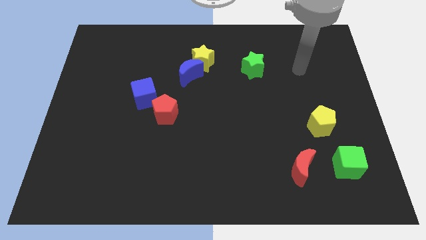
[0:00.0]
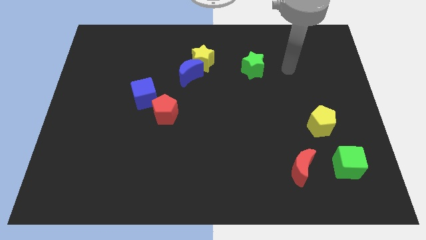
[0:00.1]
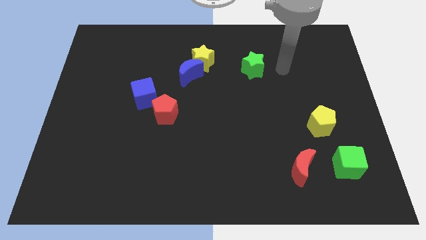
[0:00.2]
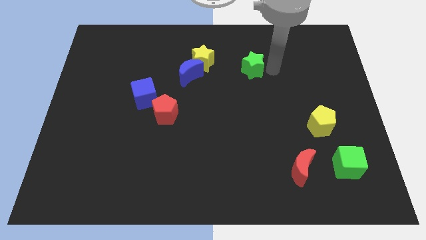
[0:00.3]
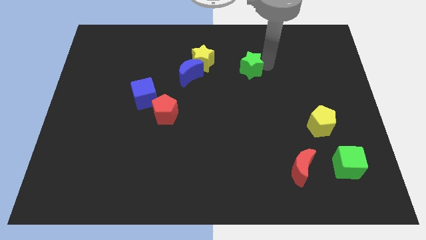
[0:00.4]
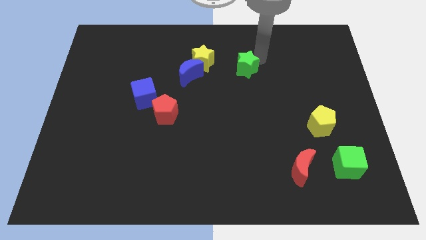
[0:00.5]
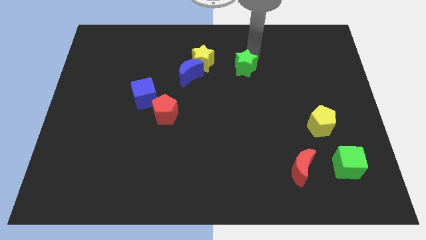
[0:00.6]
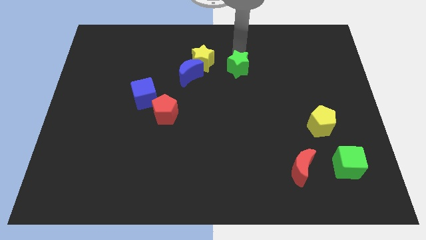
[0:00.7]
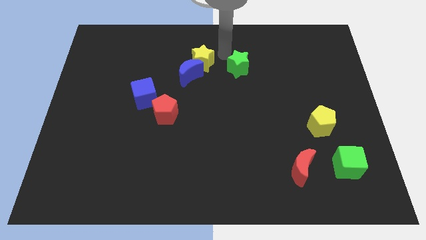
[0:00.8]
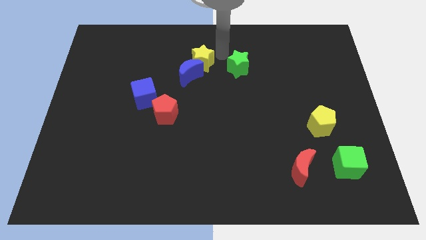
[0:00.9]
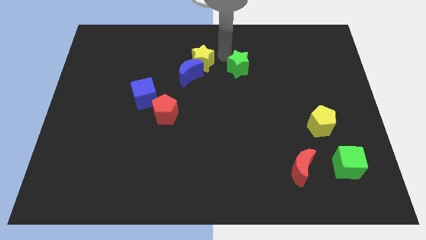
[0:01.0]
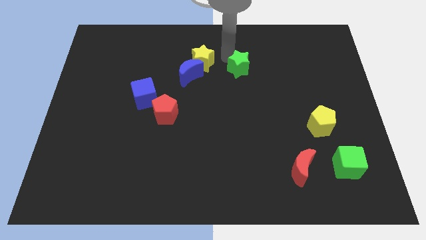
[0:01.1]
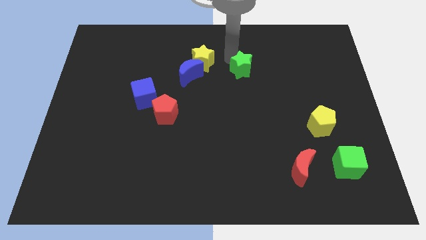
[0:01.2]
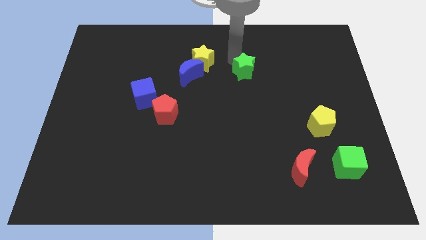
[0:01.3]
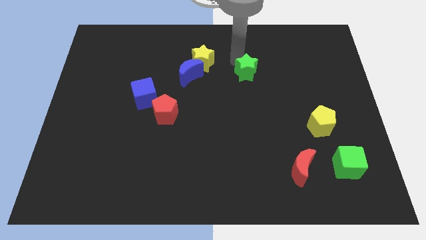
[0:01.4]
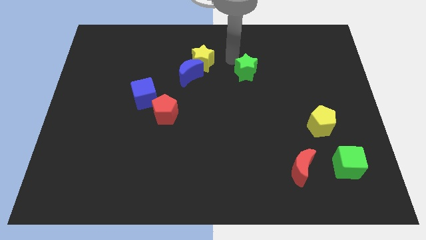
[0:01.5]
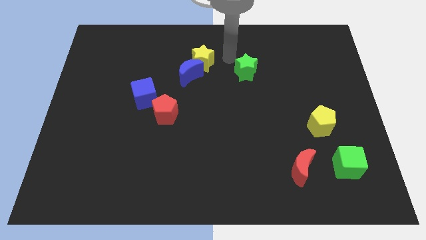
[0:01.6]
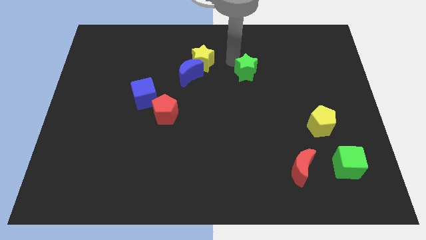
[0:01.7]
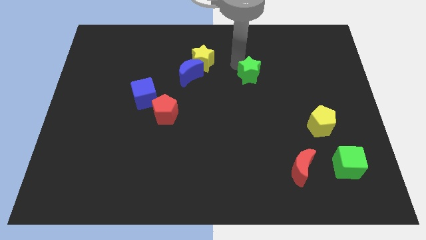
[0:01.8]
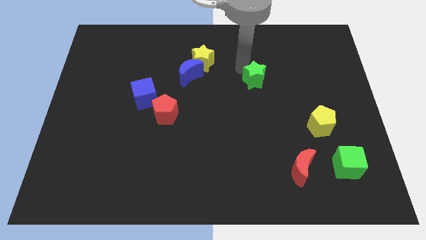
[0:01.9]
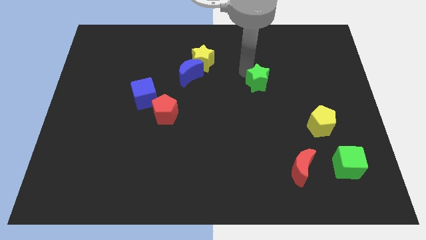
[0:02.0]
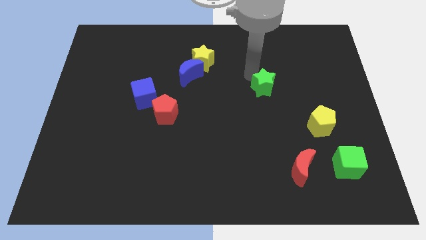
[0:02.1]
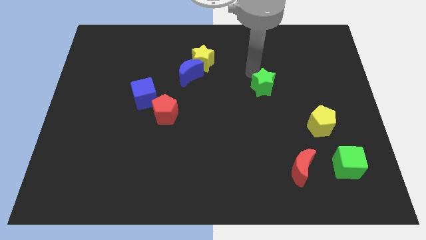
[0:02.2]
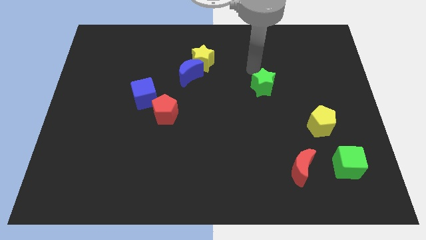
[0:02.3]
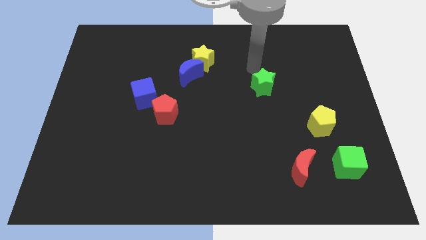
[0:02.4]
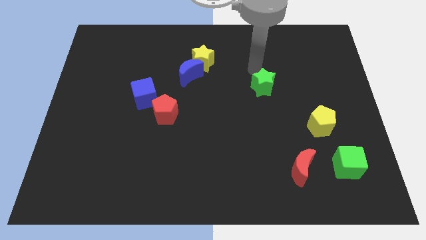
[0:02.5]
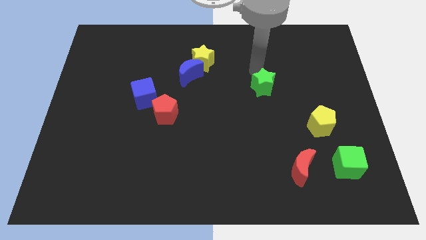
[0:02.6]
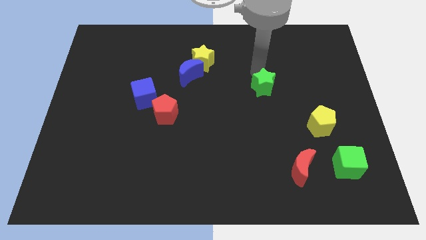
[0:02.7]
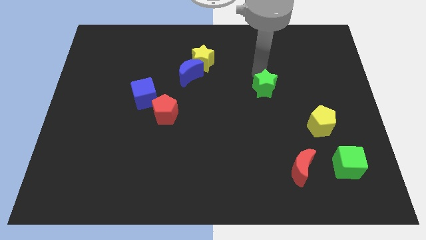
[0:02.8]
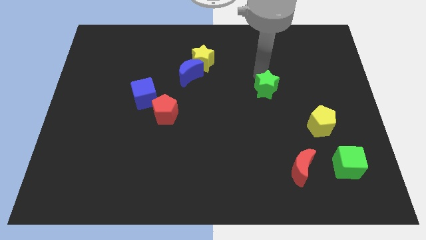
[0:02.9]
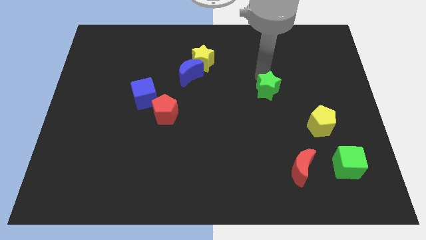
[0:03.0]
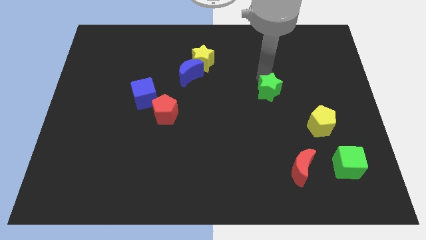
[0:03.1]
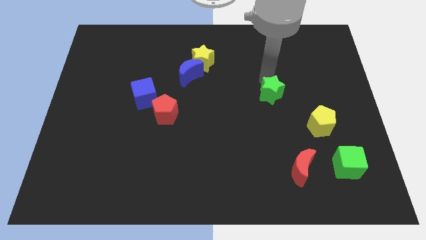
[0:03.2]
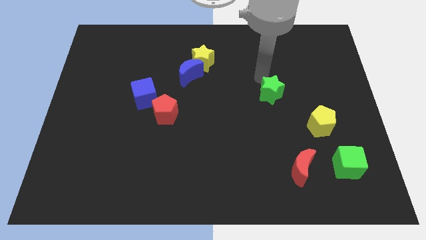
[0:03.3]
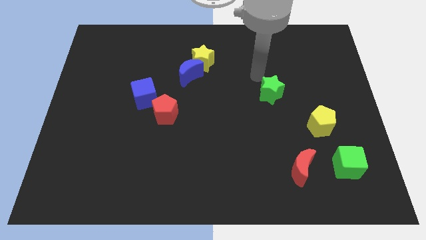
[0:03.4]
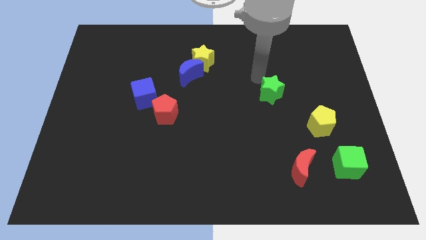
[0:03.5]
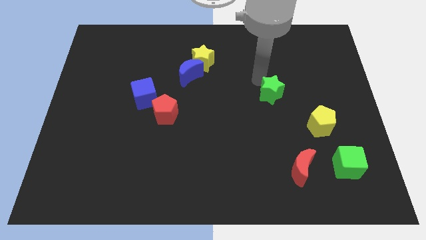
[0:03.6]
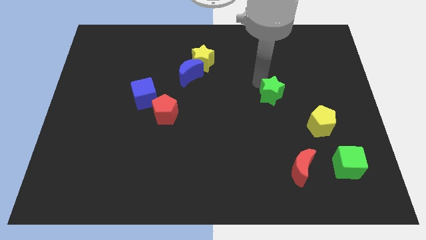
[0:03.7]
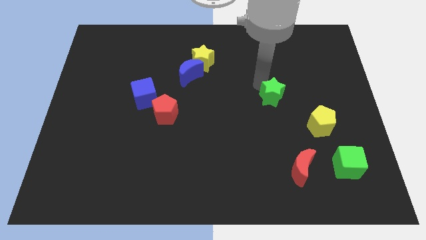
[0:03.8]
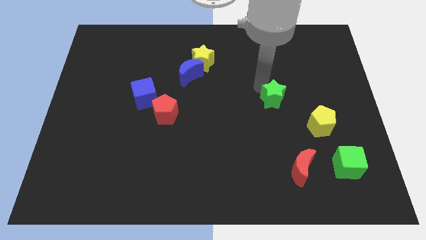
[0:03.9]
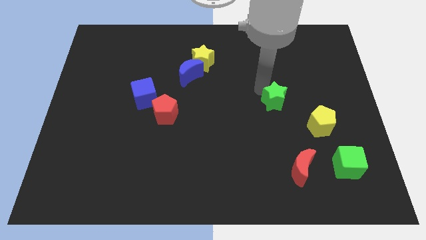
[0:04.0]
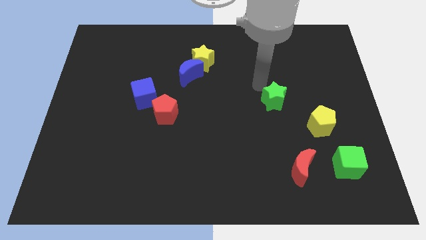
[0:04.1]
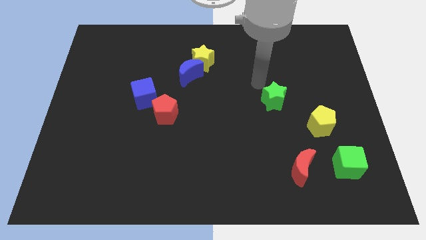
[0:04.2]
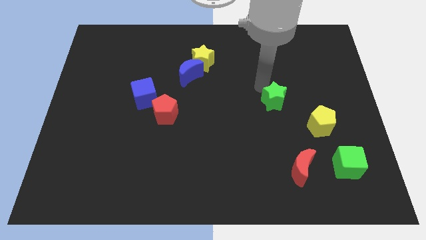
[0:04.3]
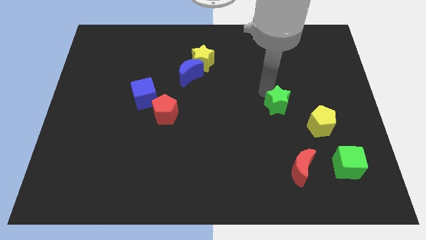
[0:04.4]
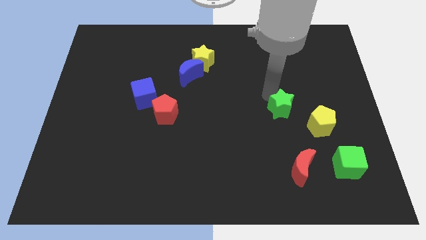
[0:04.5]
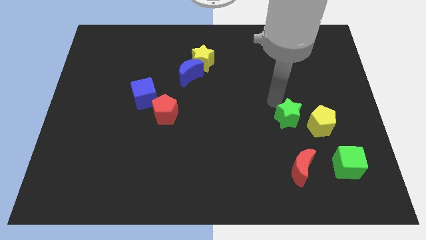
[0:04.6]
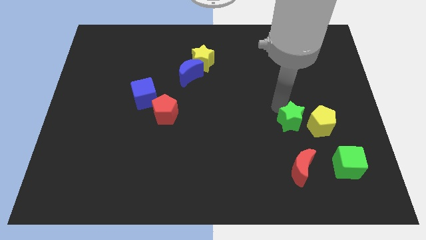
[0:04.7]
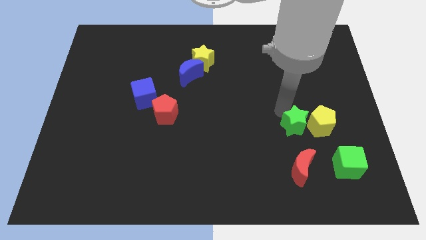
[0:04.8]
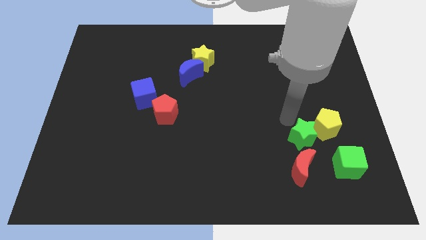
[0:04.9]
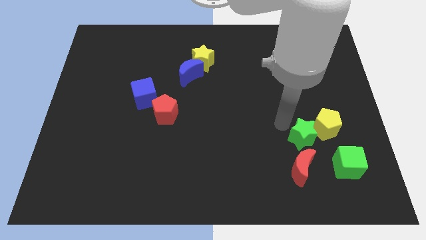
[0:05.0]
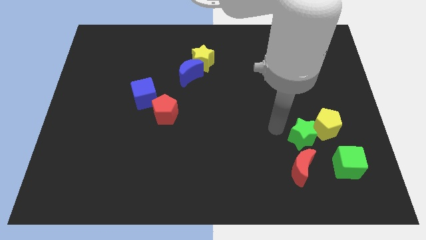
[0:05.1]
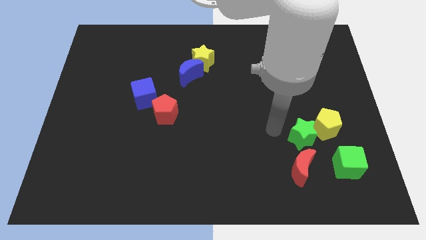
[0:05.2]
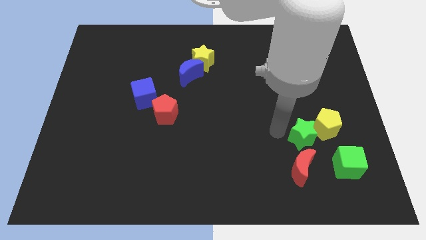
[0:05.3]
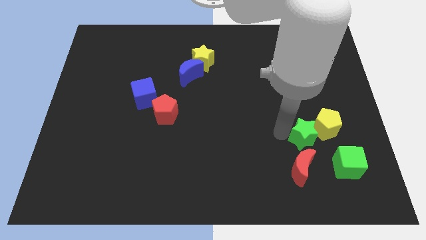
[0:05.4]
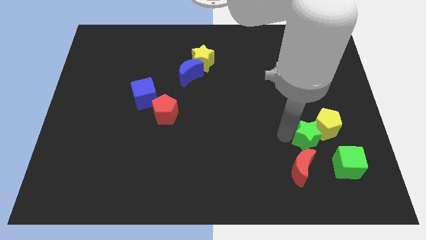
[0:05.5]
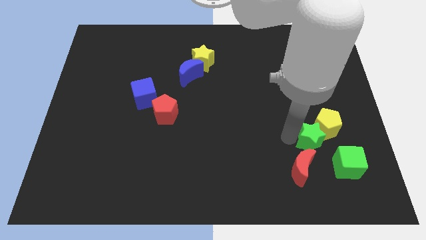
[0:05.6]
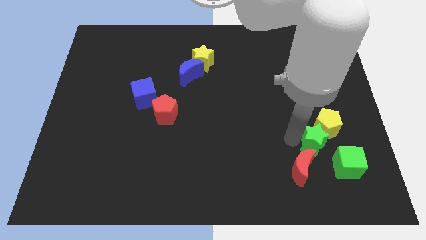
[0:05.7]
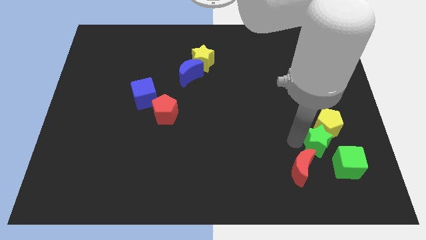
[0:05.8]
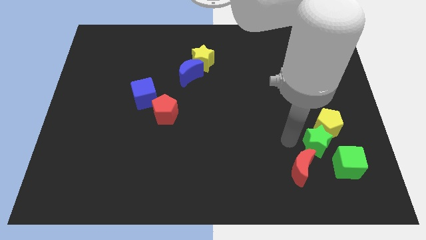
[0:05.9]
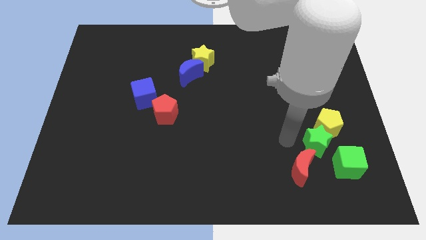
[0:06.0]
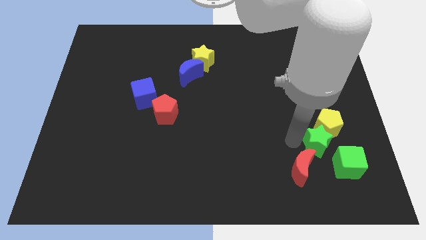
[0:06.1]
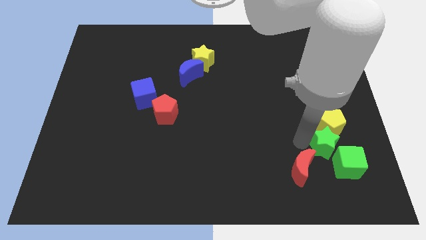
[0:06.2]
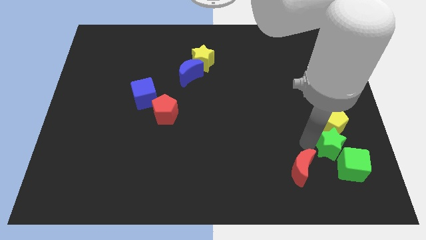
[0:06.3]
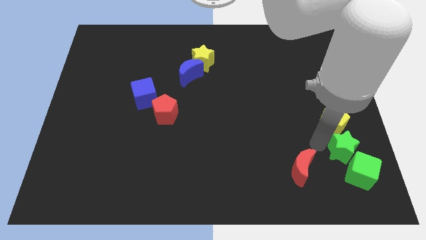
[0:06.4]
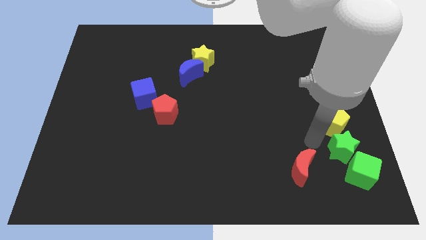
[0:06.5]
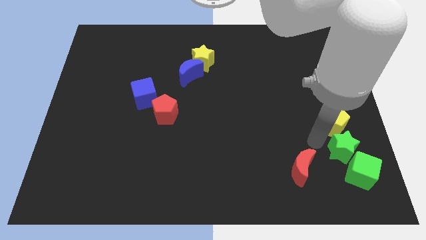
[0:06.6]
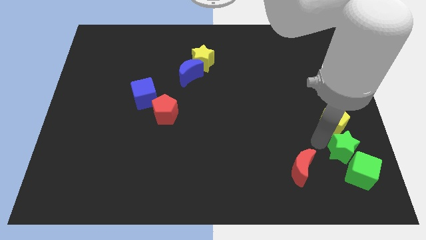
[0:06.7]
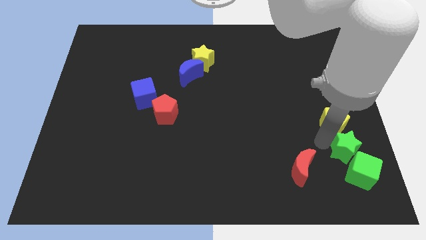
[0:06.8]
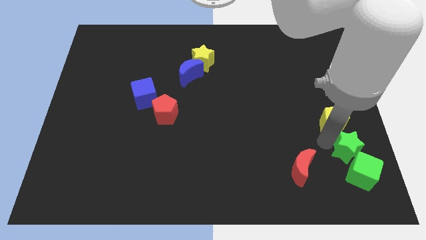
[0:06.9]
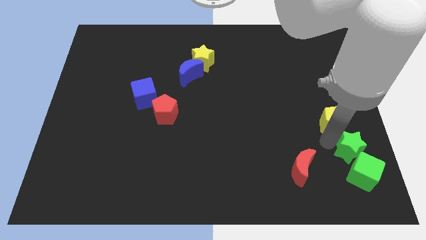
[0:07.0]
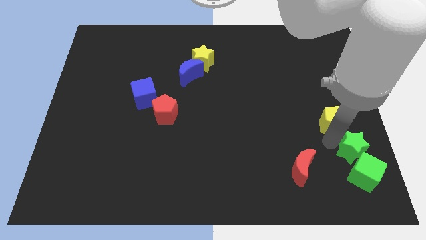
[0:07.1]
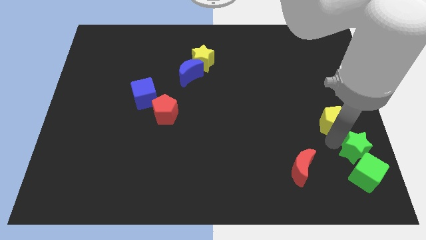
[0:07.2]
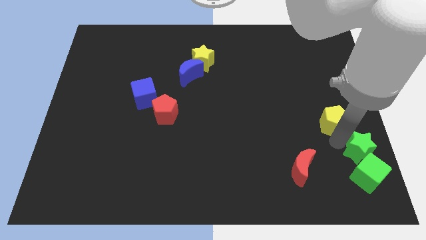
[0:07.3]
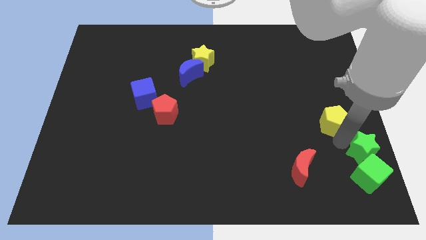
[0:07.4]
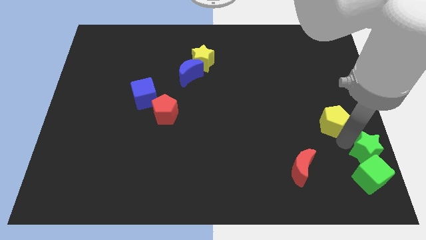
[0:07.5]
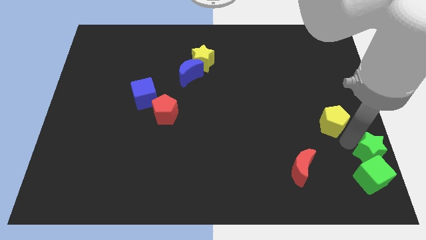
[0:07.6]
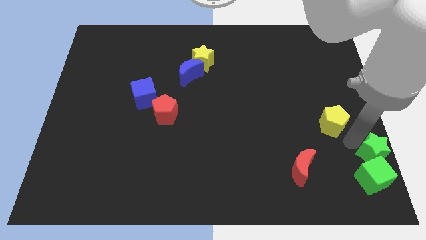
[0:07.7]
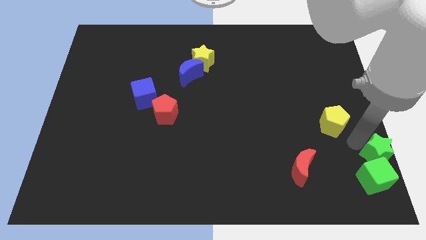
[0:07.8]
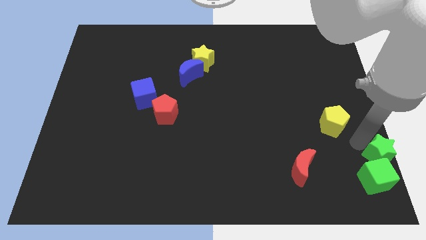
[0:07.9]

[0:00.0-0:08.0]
put the green star to the bottom right corner
